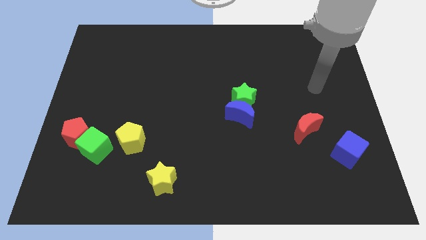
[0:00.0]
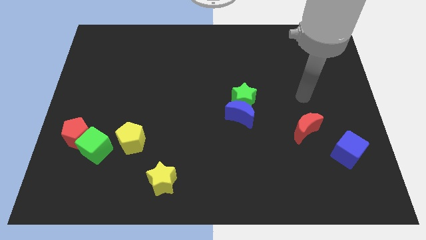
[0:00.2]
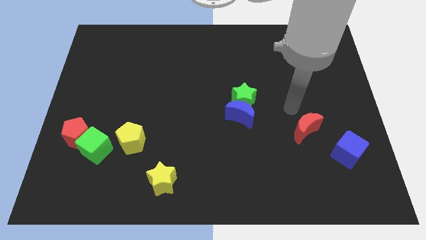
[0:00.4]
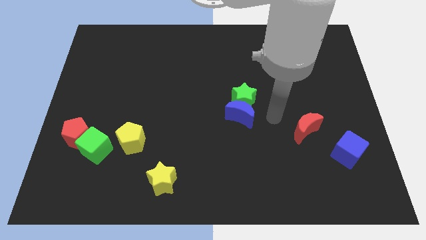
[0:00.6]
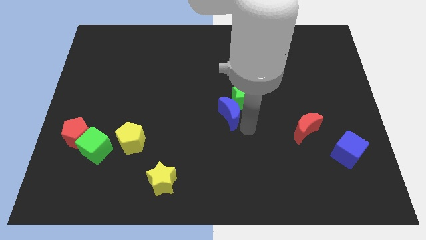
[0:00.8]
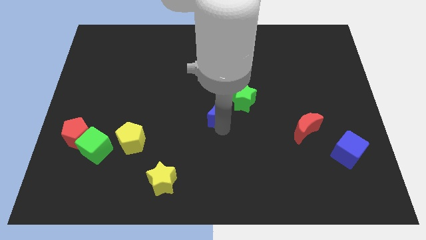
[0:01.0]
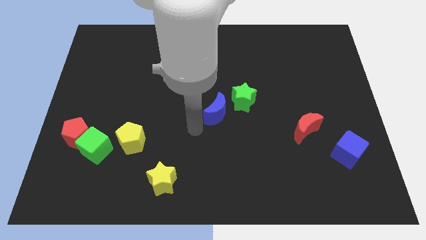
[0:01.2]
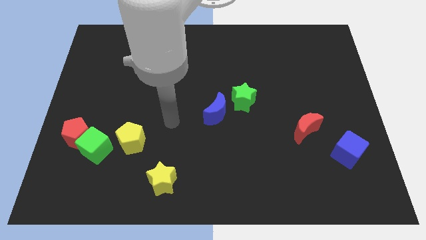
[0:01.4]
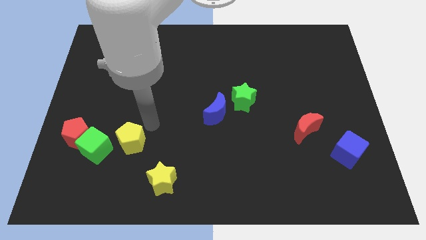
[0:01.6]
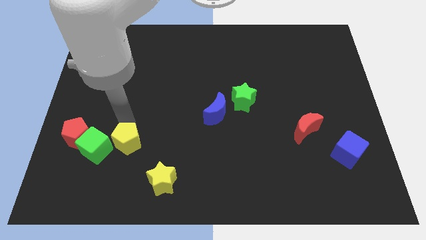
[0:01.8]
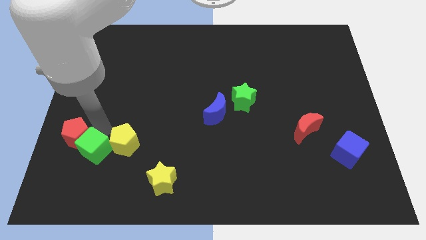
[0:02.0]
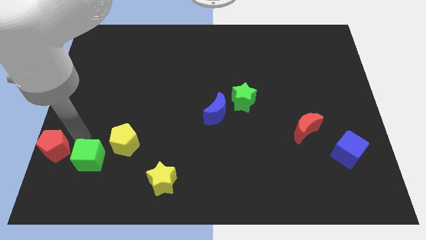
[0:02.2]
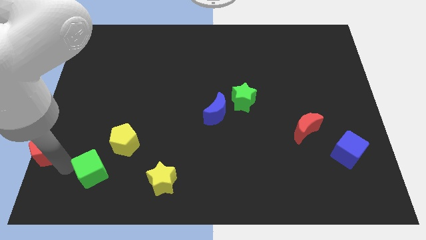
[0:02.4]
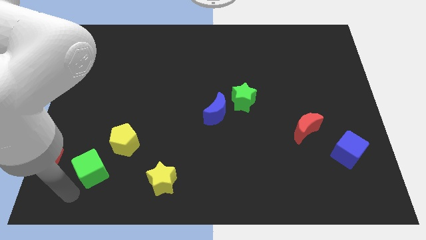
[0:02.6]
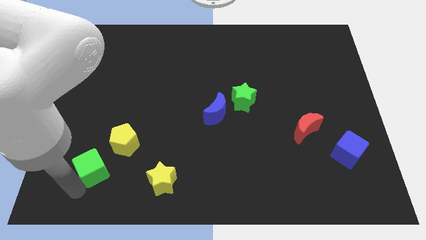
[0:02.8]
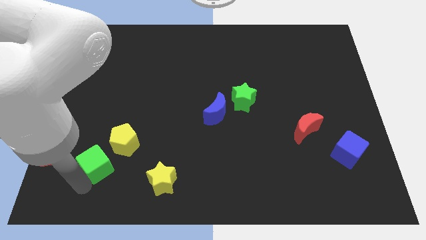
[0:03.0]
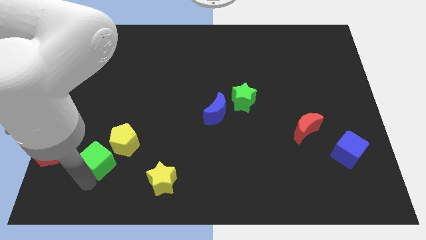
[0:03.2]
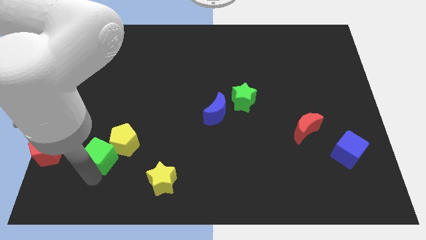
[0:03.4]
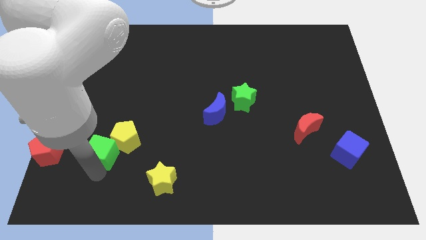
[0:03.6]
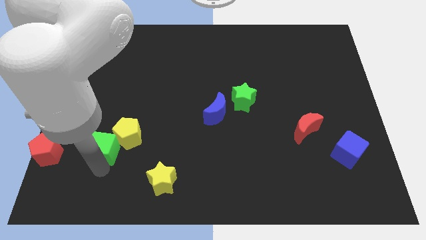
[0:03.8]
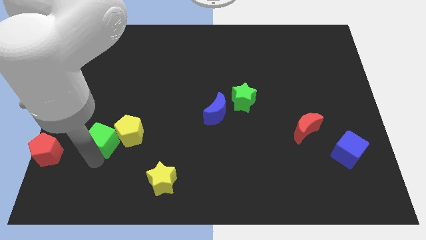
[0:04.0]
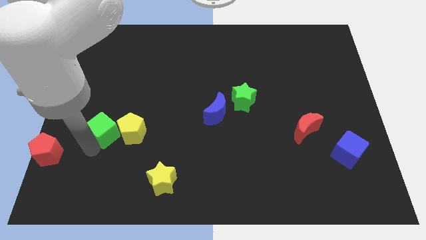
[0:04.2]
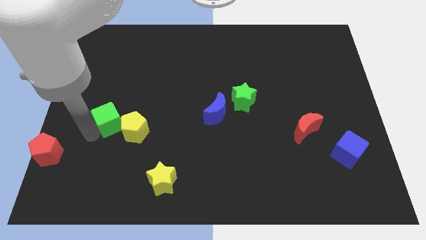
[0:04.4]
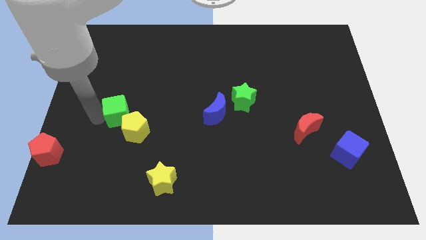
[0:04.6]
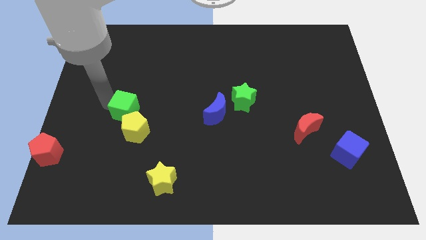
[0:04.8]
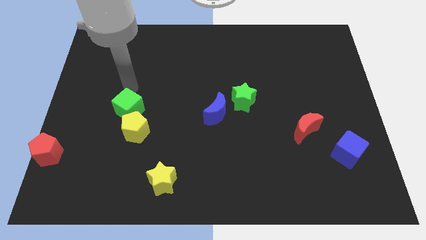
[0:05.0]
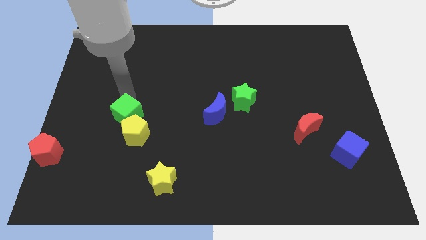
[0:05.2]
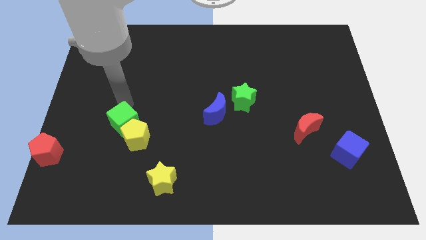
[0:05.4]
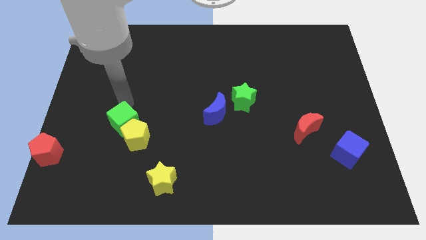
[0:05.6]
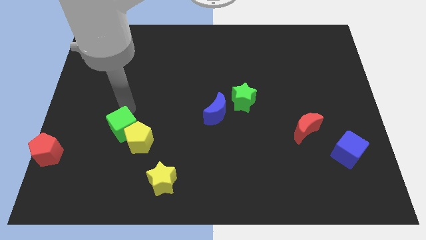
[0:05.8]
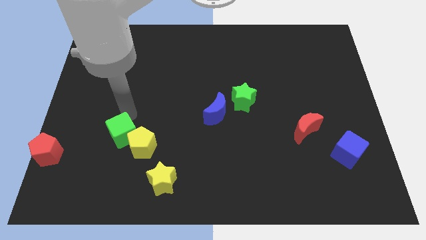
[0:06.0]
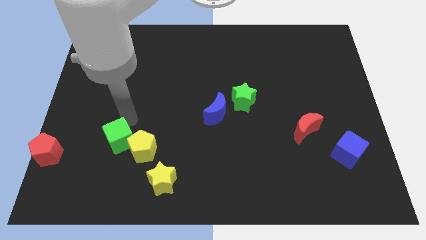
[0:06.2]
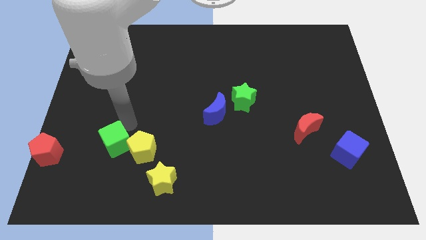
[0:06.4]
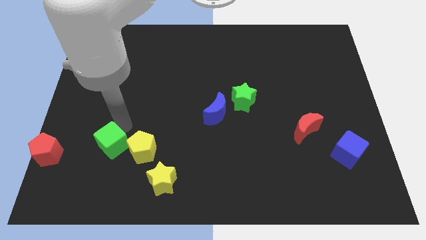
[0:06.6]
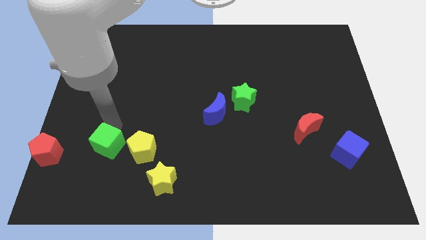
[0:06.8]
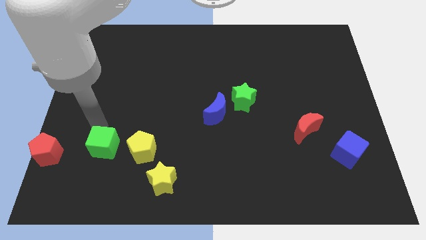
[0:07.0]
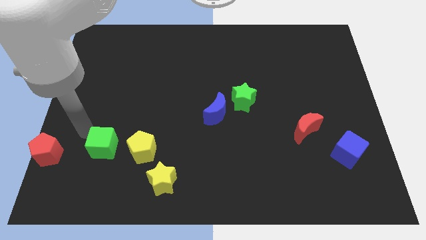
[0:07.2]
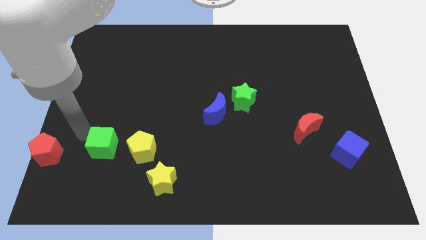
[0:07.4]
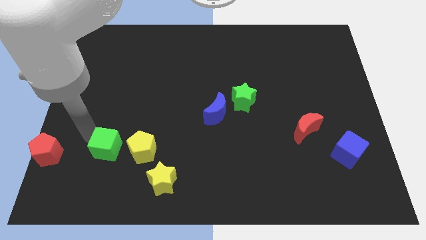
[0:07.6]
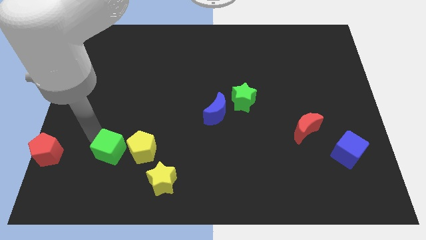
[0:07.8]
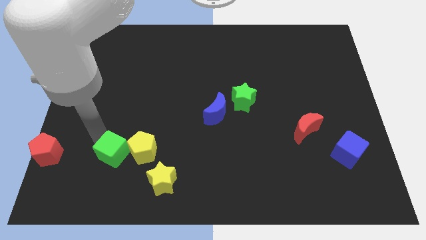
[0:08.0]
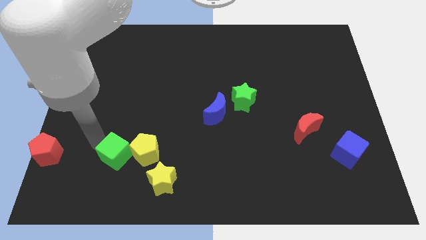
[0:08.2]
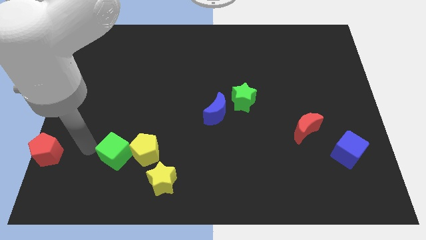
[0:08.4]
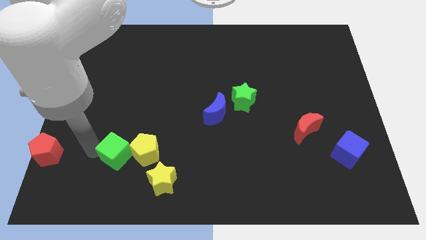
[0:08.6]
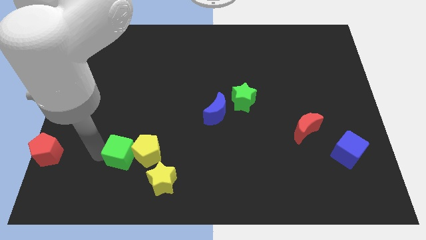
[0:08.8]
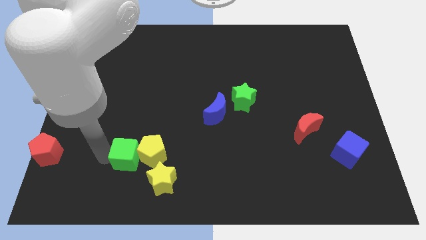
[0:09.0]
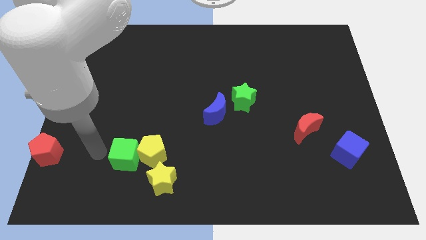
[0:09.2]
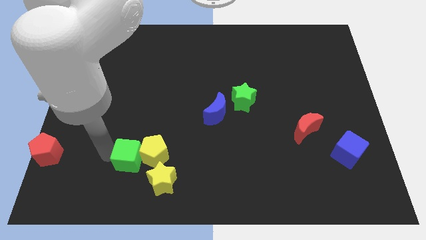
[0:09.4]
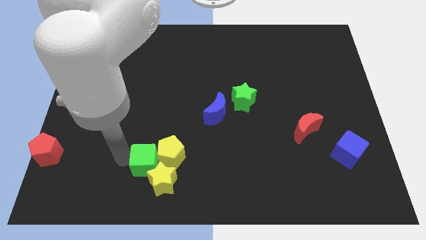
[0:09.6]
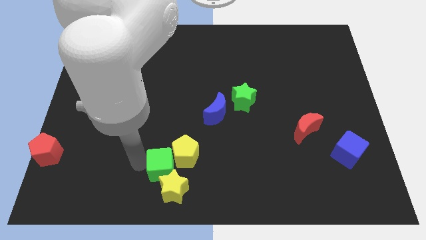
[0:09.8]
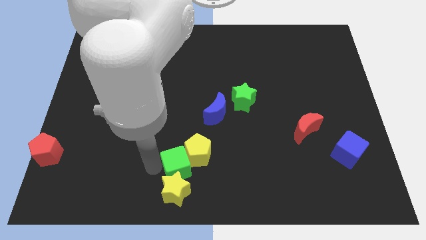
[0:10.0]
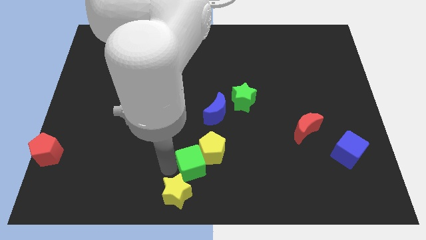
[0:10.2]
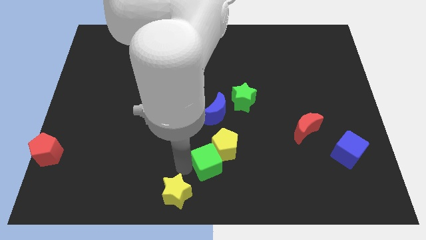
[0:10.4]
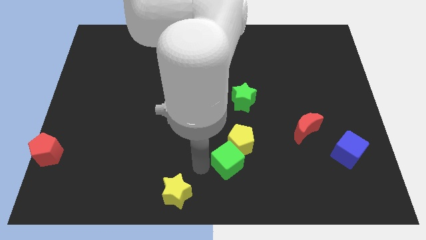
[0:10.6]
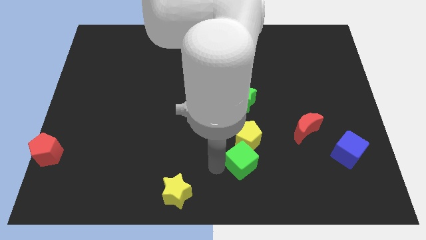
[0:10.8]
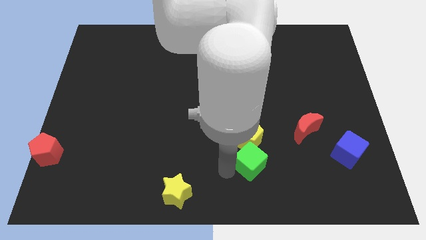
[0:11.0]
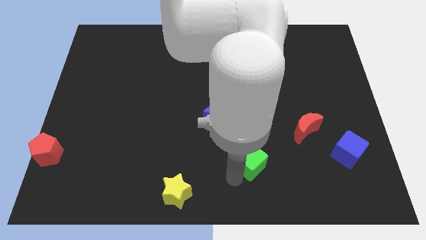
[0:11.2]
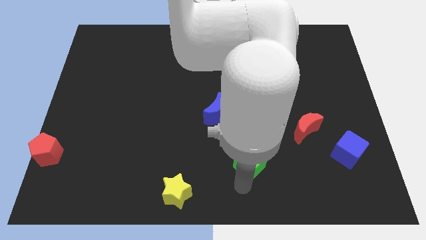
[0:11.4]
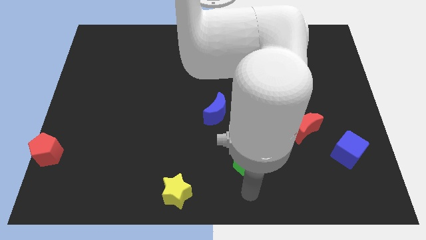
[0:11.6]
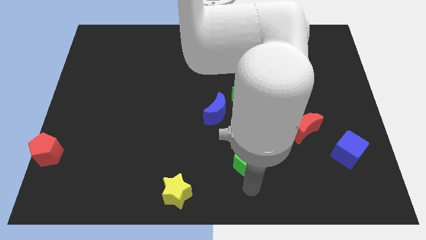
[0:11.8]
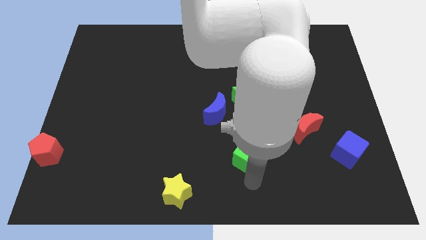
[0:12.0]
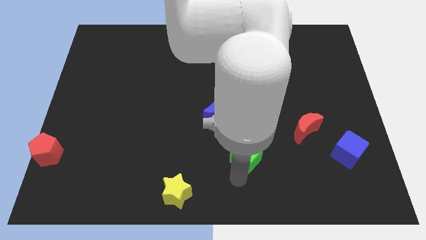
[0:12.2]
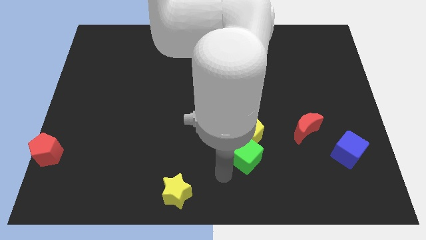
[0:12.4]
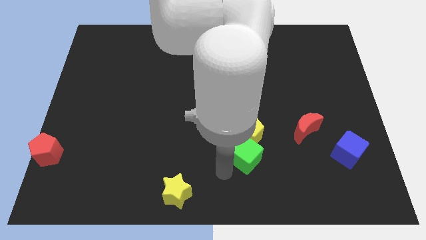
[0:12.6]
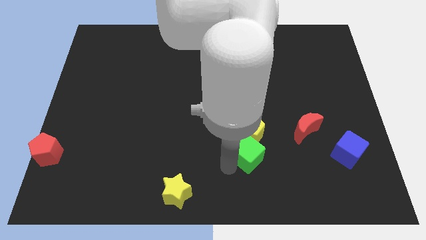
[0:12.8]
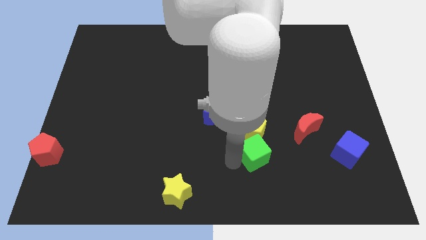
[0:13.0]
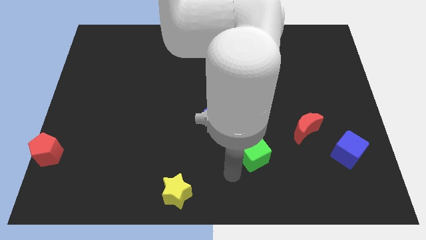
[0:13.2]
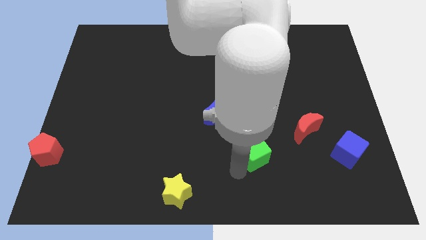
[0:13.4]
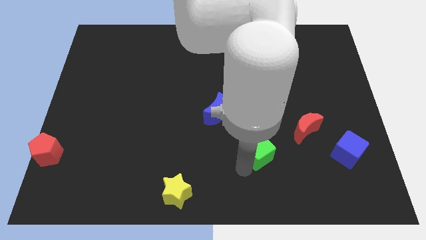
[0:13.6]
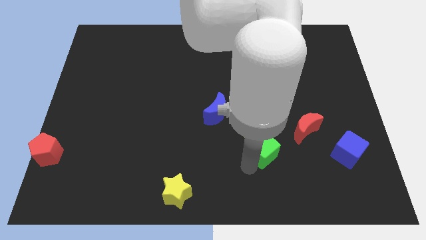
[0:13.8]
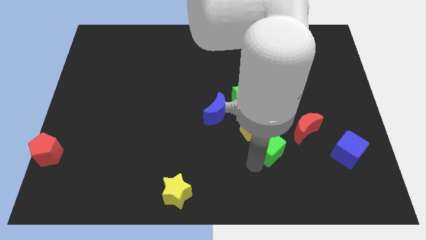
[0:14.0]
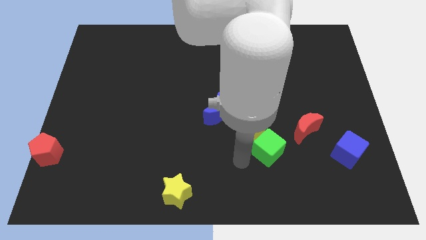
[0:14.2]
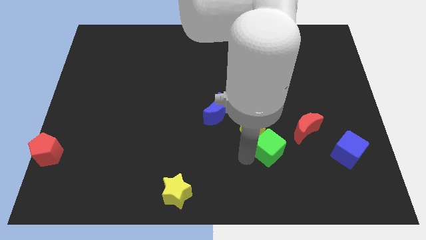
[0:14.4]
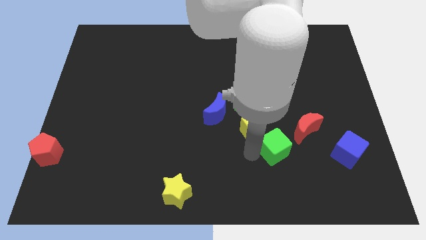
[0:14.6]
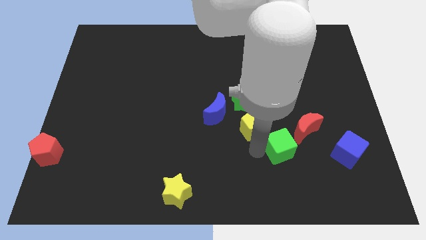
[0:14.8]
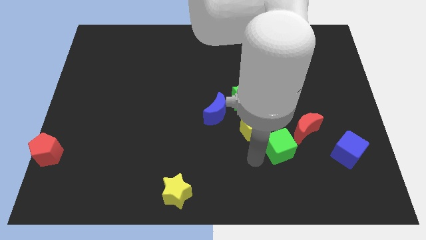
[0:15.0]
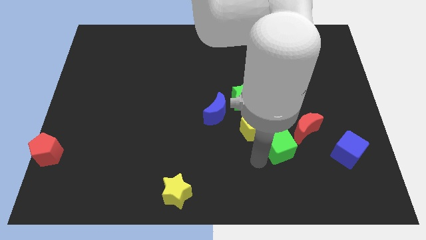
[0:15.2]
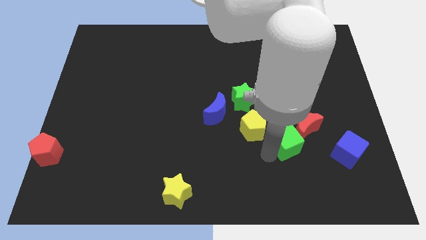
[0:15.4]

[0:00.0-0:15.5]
move the green cube next to the red moon
